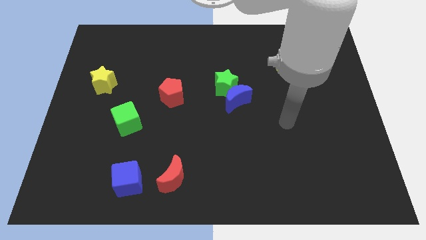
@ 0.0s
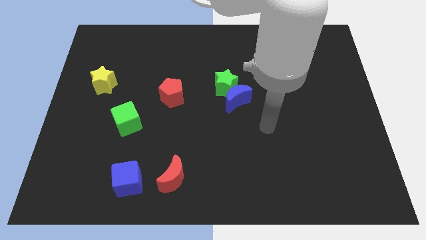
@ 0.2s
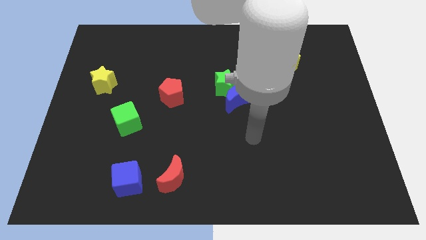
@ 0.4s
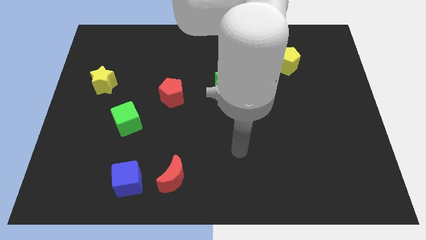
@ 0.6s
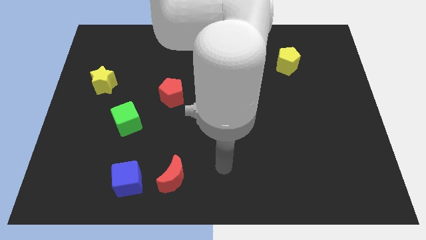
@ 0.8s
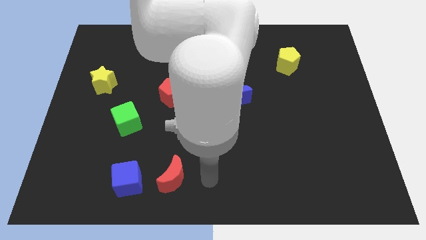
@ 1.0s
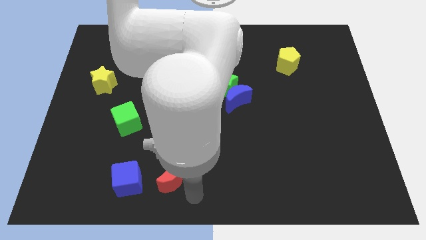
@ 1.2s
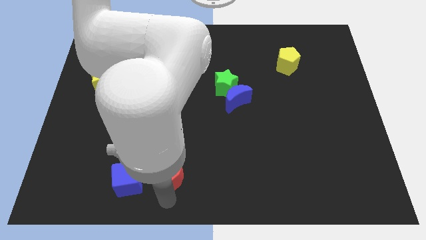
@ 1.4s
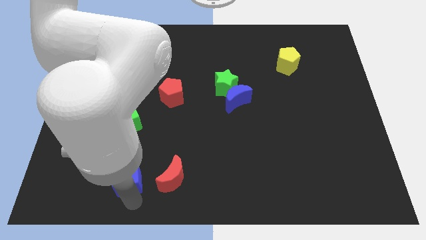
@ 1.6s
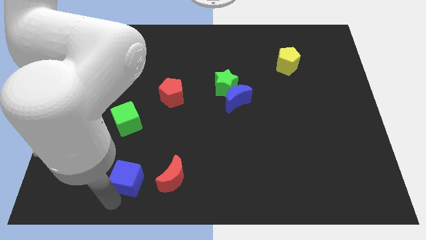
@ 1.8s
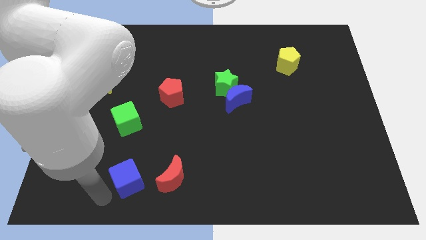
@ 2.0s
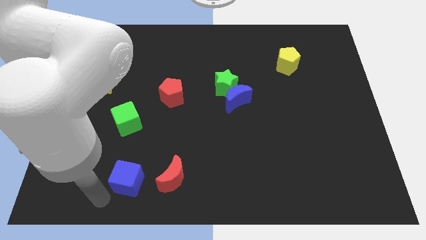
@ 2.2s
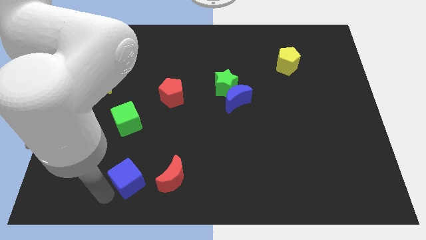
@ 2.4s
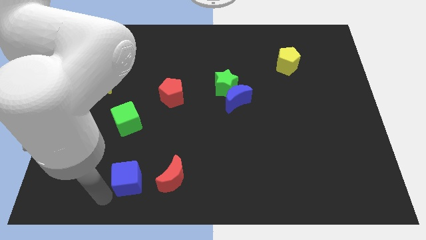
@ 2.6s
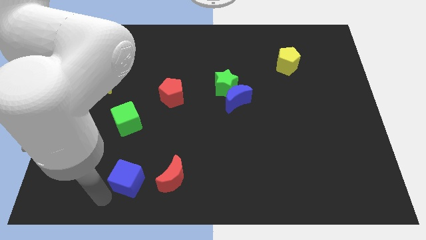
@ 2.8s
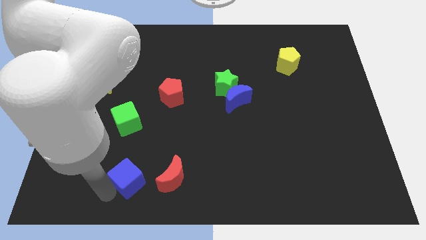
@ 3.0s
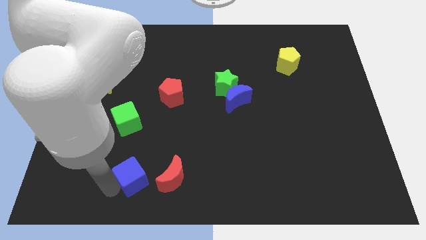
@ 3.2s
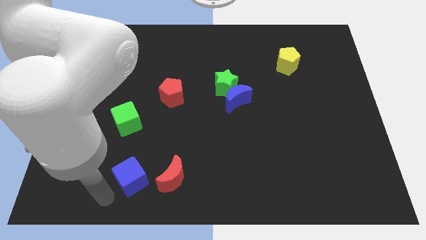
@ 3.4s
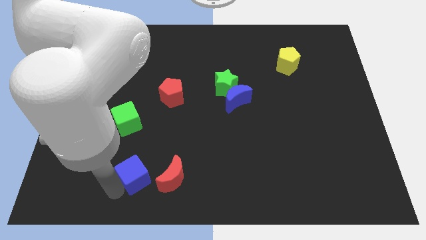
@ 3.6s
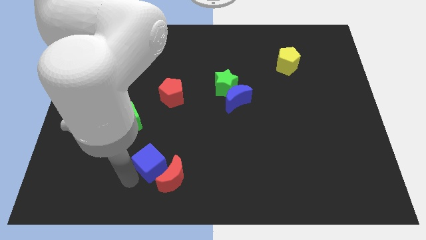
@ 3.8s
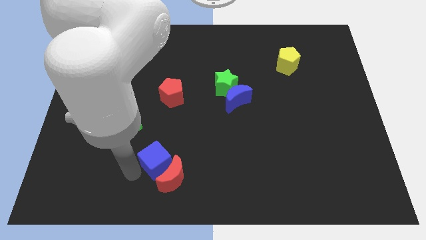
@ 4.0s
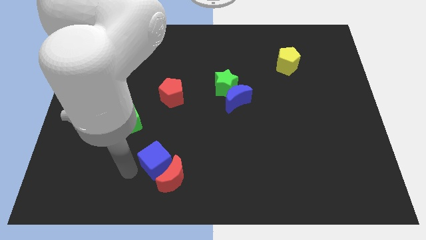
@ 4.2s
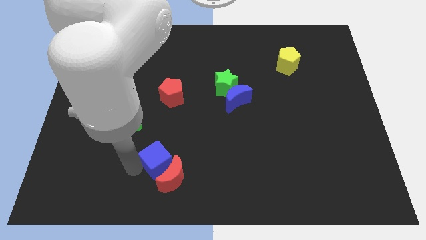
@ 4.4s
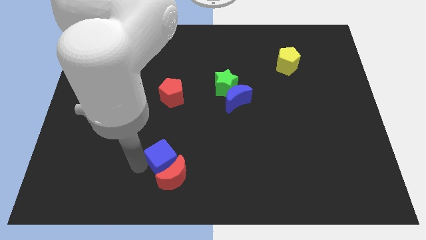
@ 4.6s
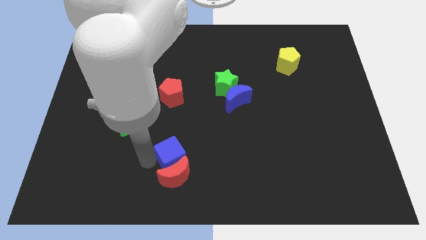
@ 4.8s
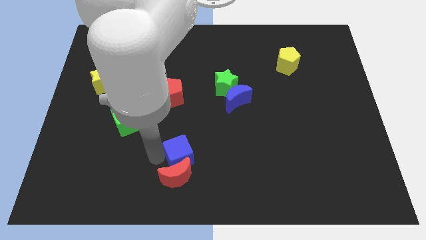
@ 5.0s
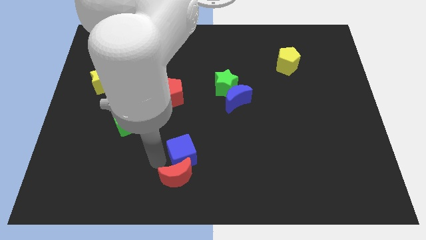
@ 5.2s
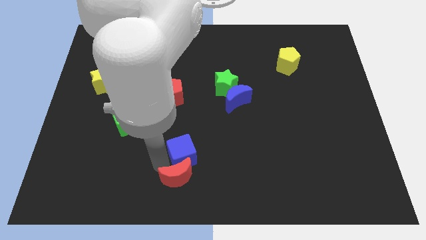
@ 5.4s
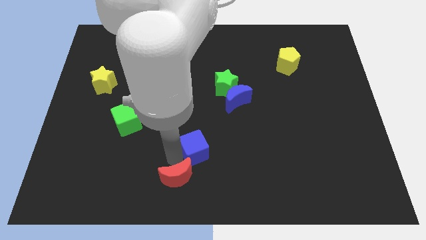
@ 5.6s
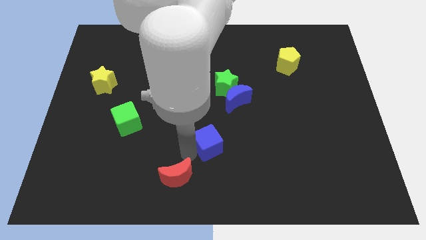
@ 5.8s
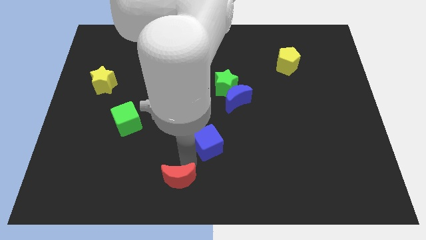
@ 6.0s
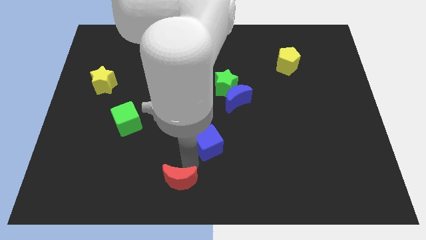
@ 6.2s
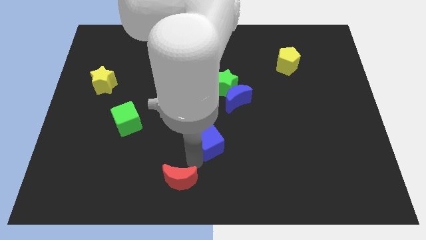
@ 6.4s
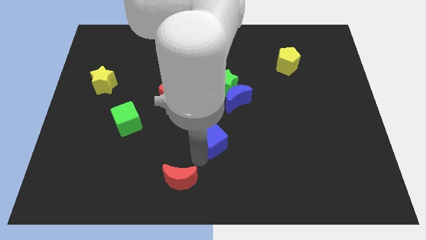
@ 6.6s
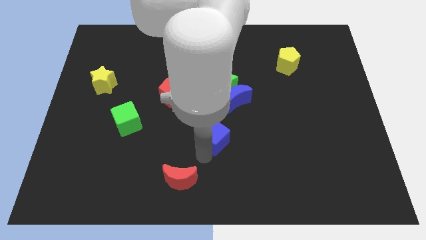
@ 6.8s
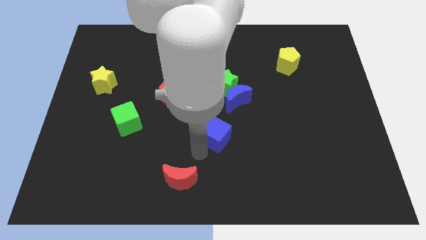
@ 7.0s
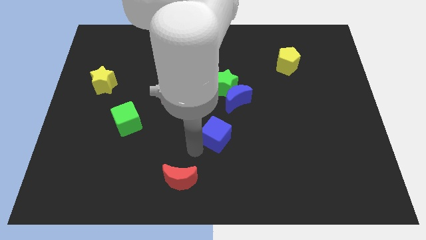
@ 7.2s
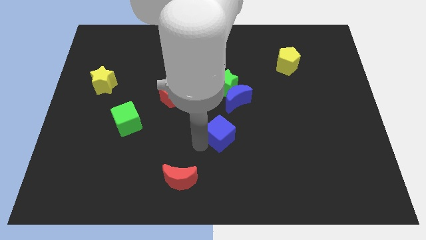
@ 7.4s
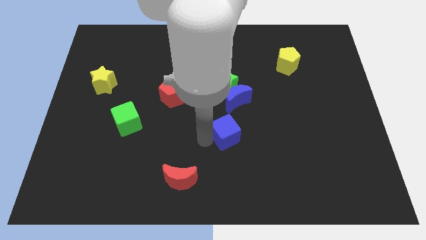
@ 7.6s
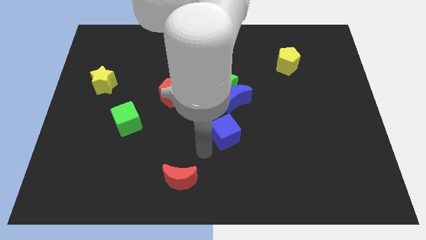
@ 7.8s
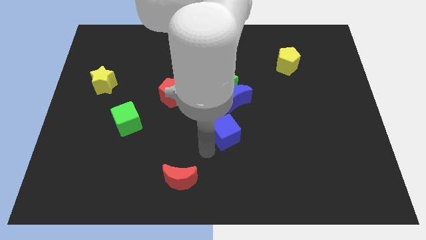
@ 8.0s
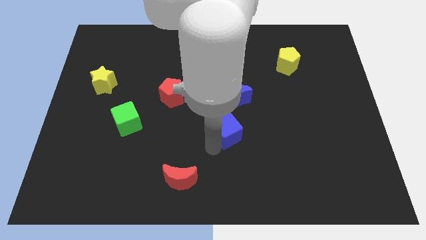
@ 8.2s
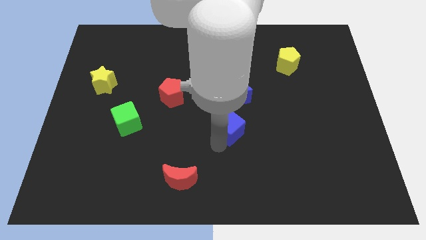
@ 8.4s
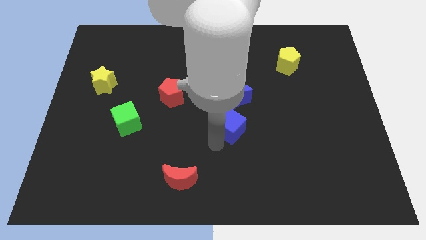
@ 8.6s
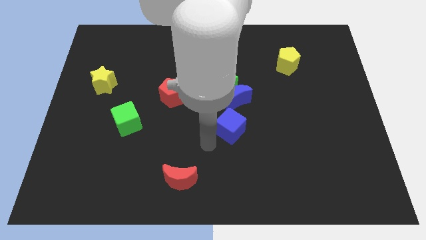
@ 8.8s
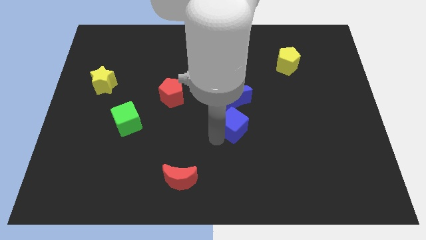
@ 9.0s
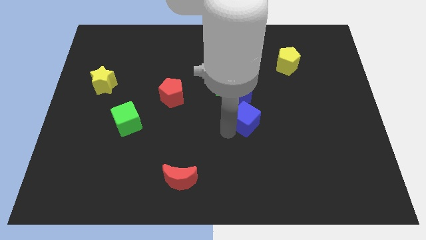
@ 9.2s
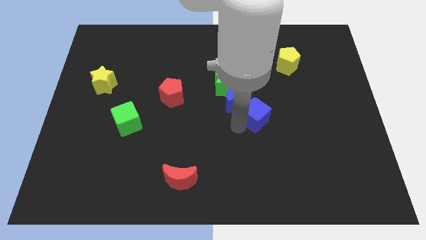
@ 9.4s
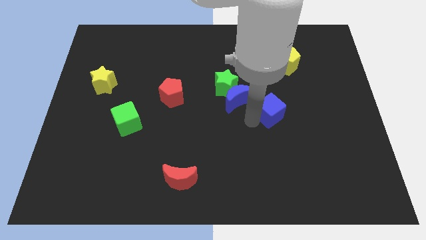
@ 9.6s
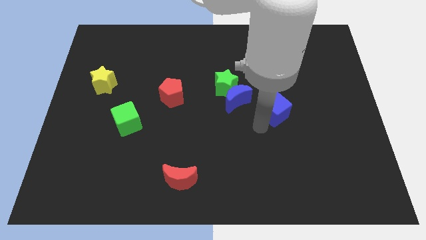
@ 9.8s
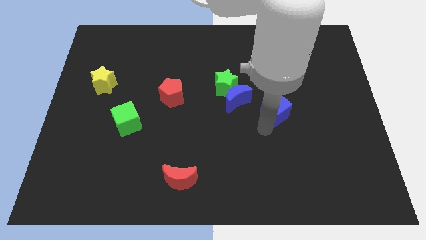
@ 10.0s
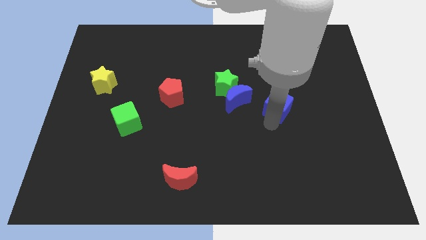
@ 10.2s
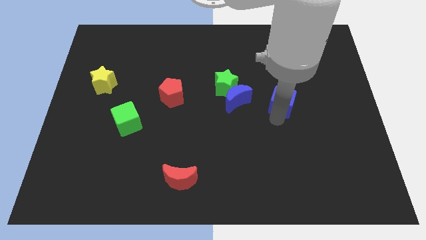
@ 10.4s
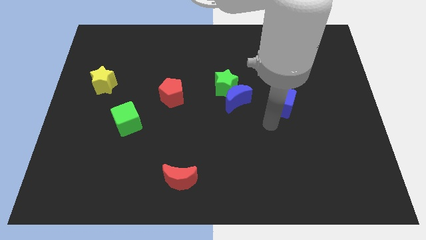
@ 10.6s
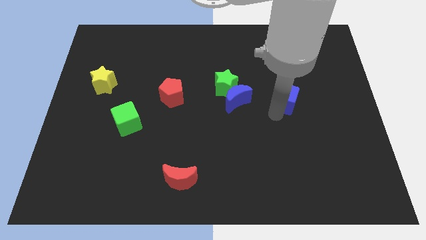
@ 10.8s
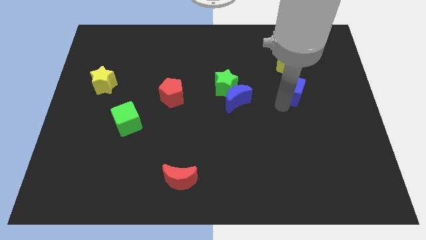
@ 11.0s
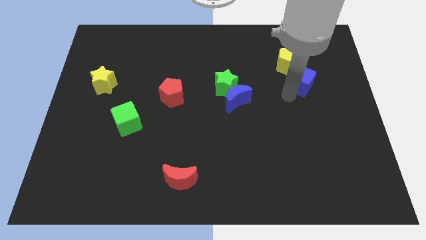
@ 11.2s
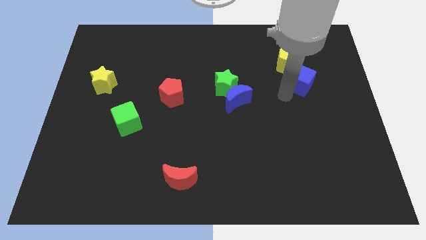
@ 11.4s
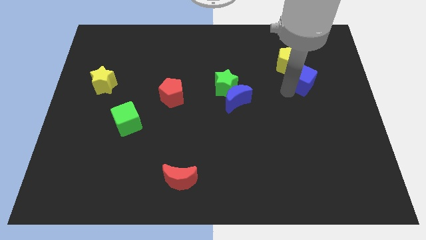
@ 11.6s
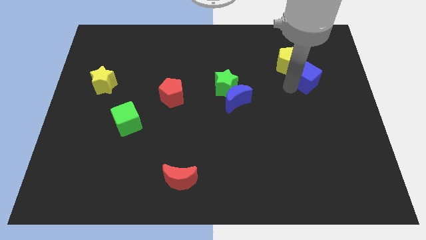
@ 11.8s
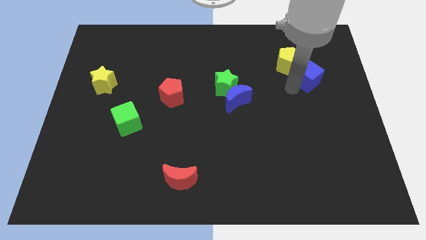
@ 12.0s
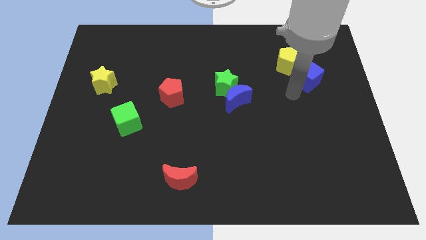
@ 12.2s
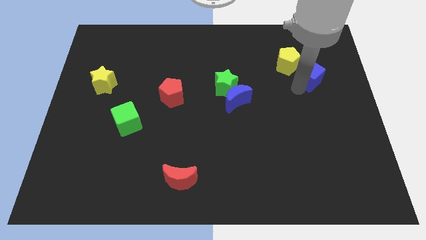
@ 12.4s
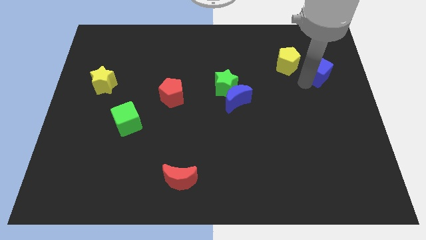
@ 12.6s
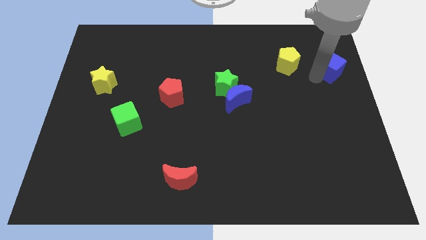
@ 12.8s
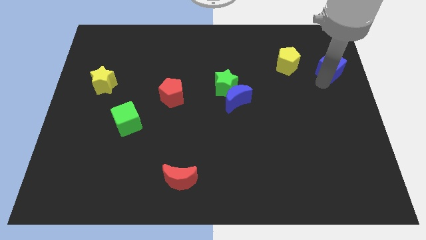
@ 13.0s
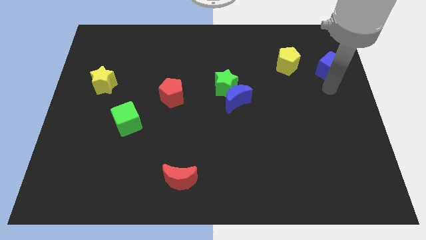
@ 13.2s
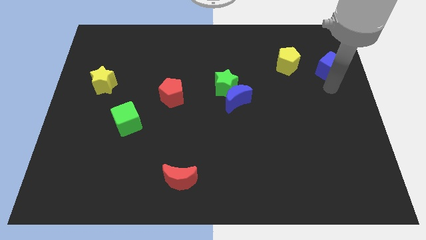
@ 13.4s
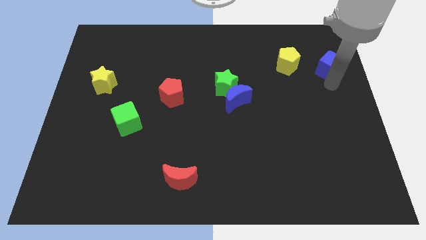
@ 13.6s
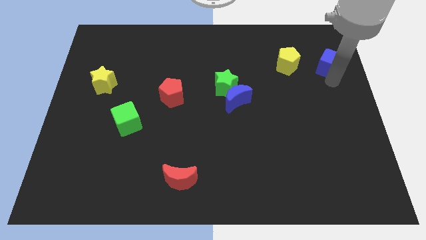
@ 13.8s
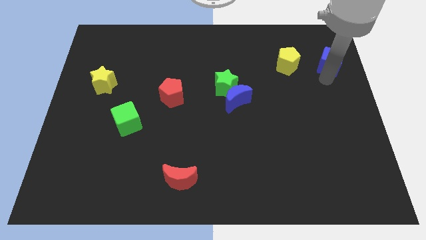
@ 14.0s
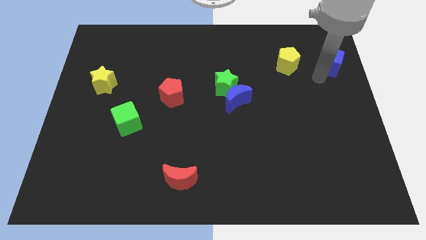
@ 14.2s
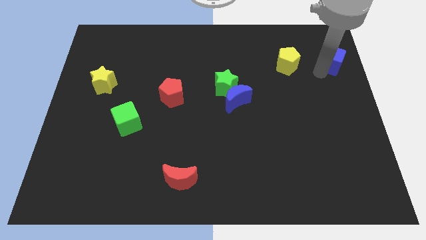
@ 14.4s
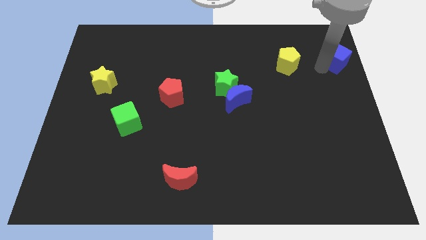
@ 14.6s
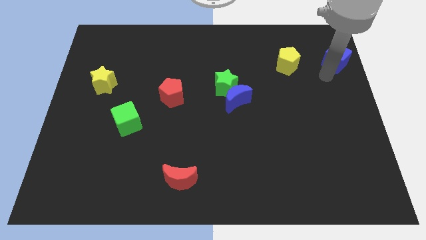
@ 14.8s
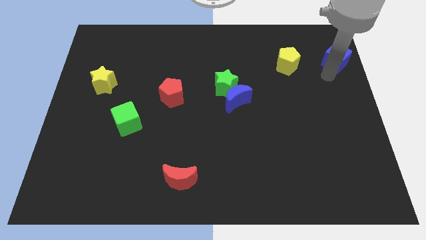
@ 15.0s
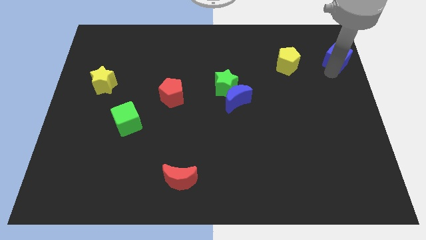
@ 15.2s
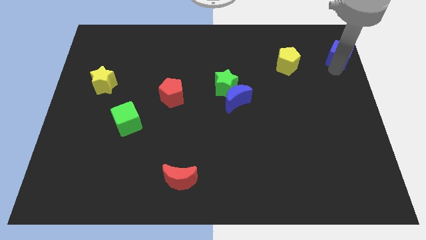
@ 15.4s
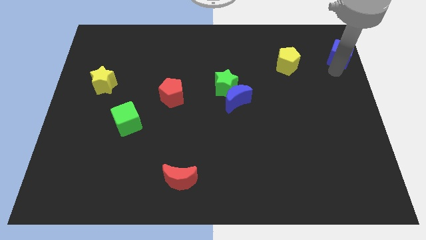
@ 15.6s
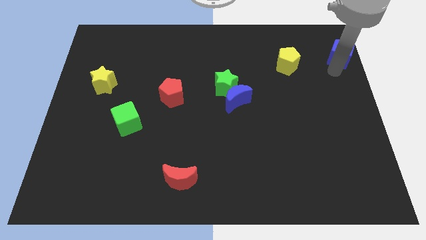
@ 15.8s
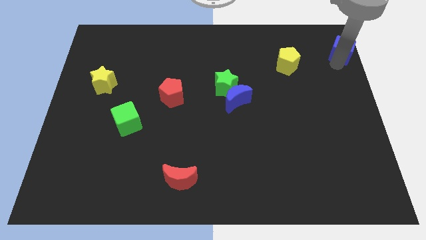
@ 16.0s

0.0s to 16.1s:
slide the blue cube to the upper right corner
